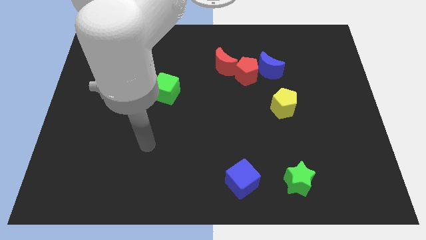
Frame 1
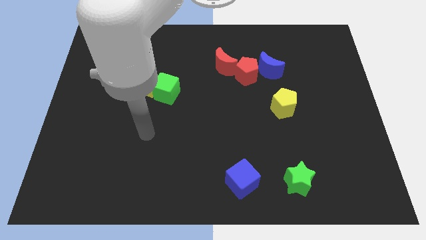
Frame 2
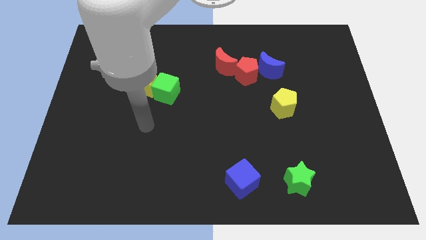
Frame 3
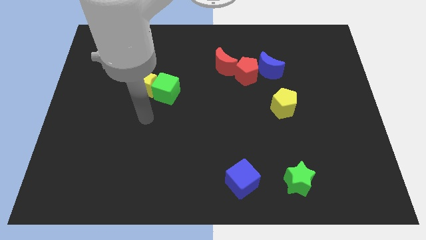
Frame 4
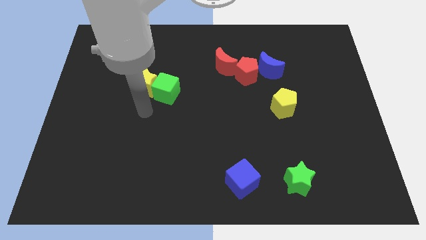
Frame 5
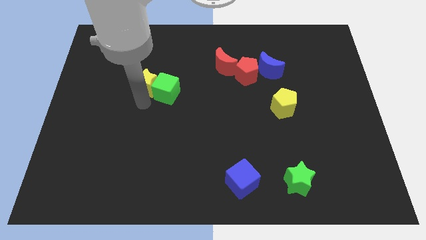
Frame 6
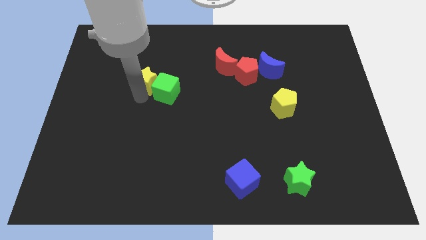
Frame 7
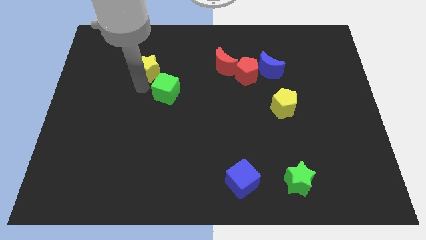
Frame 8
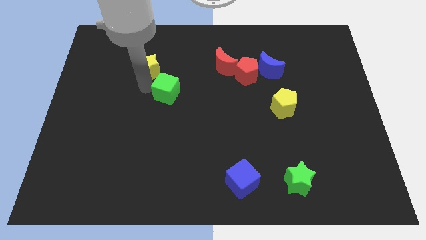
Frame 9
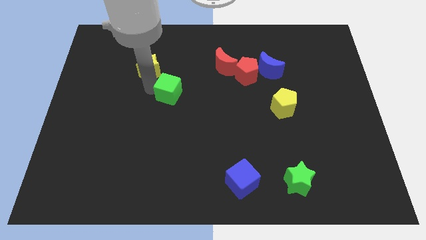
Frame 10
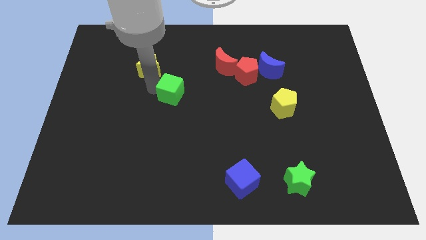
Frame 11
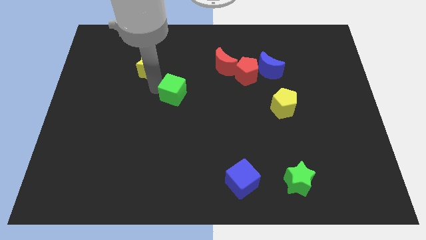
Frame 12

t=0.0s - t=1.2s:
separate the green cube from the yellow star

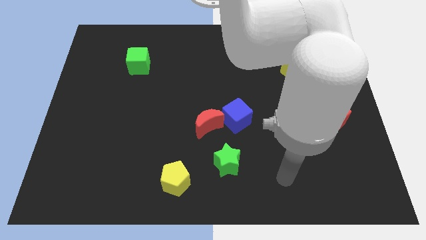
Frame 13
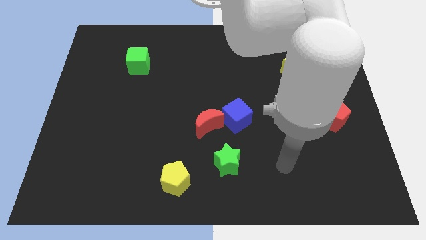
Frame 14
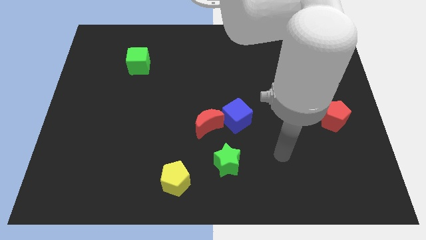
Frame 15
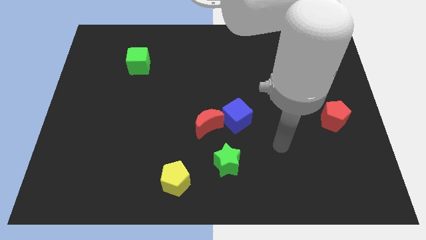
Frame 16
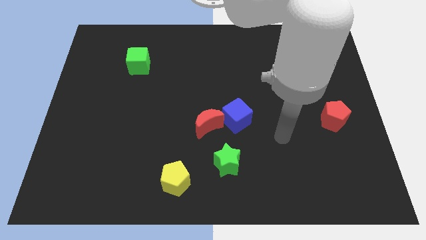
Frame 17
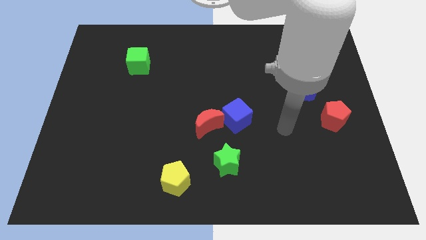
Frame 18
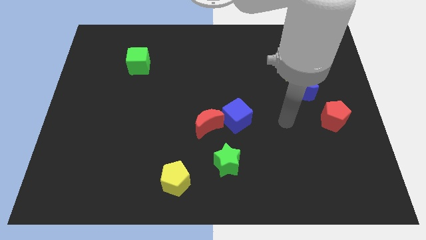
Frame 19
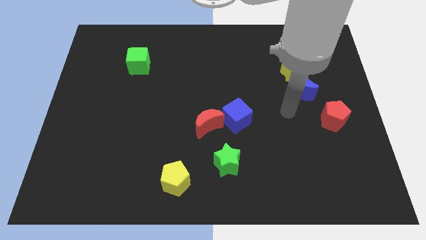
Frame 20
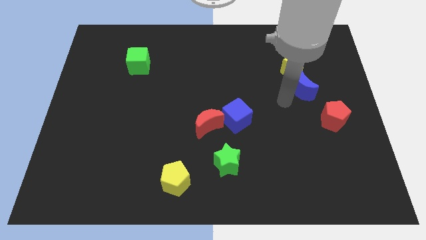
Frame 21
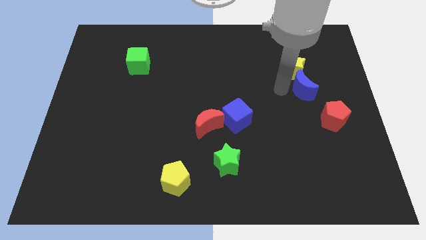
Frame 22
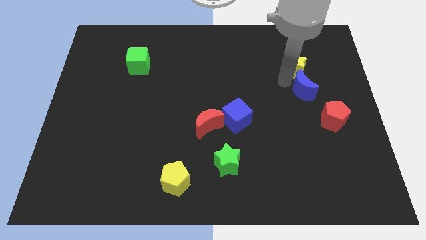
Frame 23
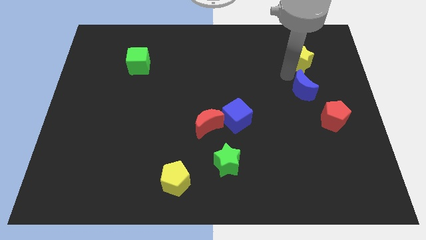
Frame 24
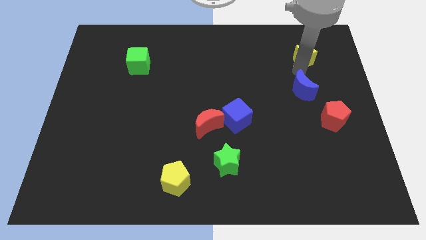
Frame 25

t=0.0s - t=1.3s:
move the blue moon away from the yellow star

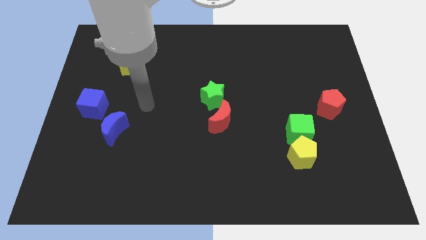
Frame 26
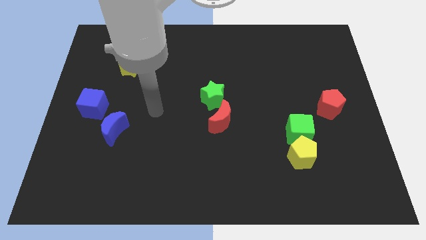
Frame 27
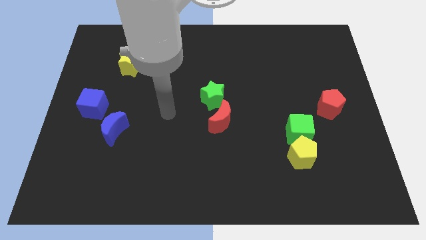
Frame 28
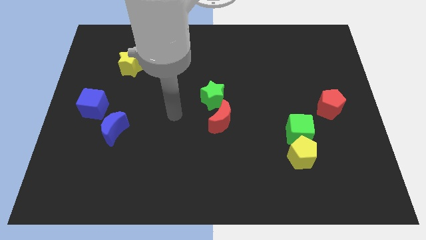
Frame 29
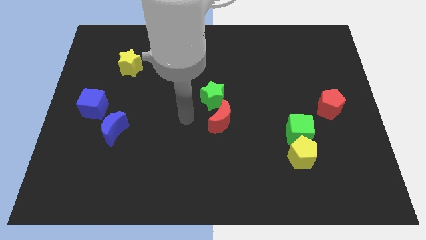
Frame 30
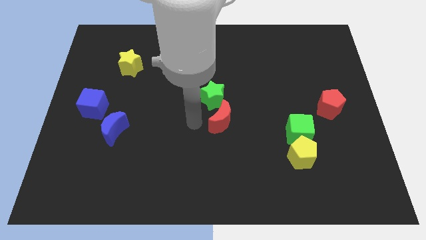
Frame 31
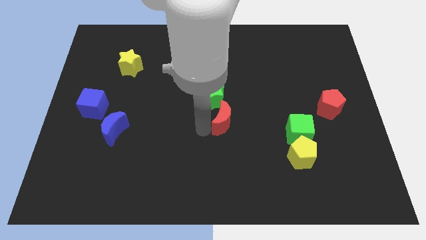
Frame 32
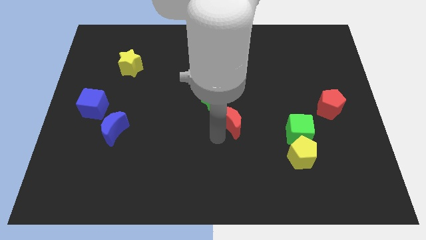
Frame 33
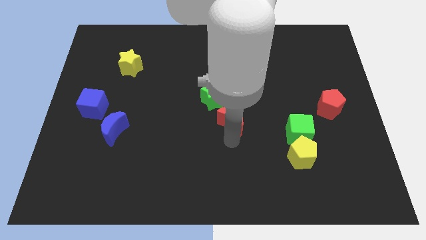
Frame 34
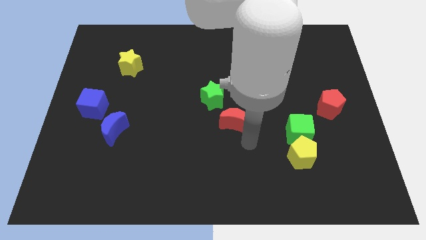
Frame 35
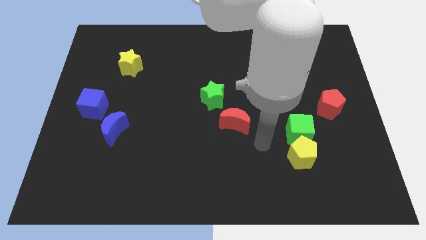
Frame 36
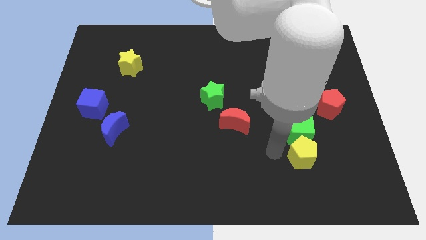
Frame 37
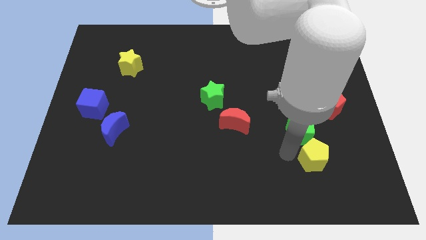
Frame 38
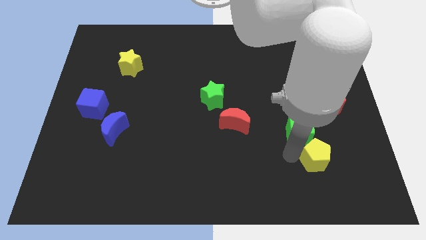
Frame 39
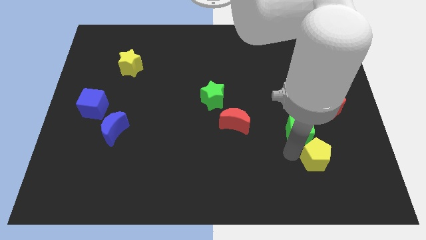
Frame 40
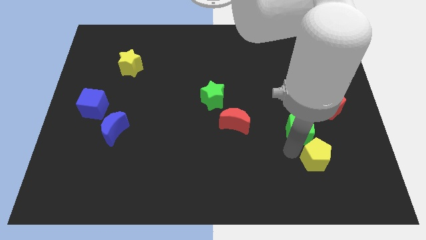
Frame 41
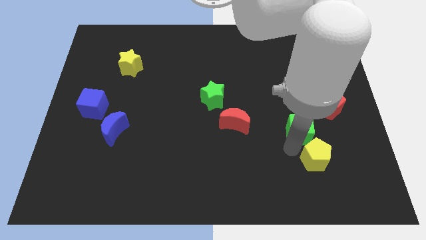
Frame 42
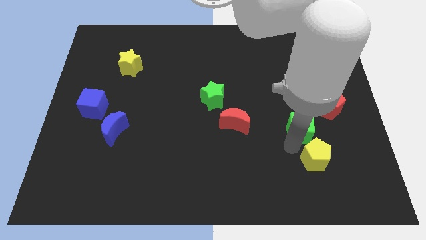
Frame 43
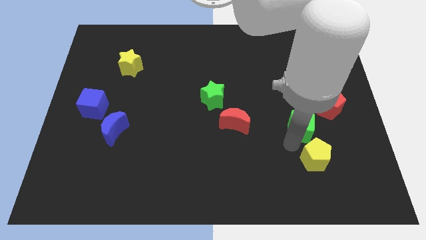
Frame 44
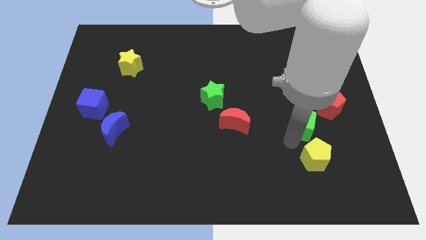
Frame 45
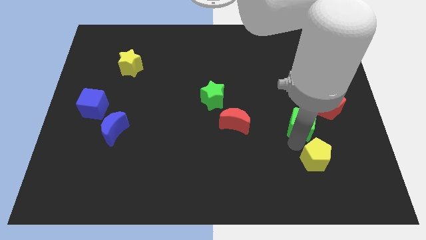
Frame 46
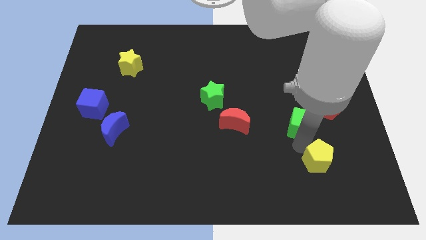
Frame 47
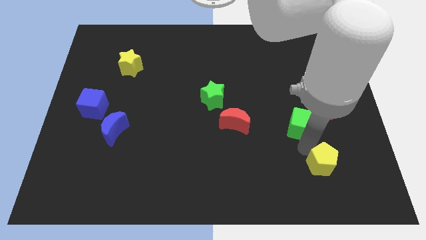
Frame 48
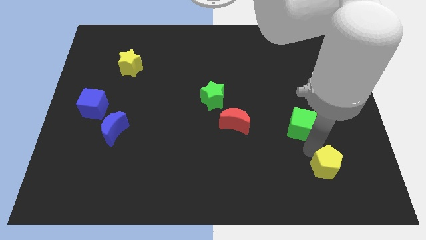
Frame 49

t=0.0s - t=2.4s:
move the green cube away from the yellow pentagon

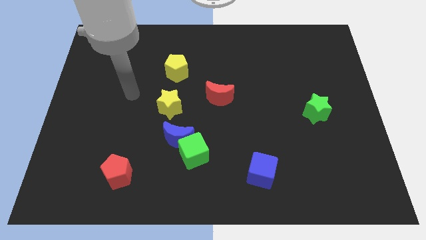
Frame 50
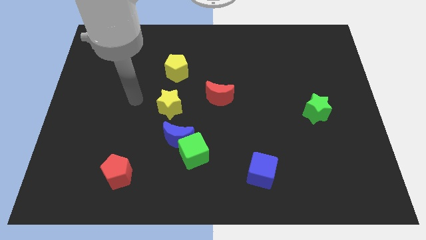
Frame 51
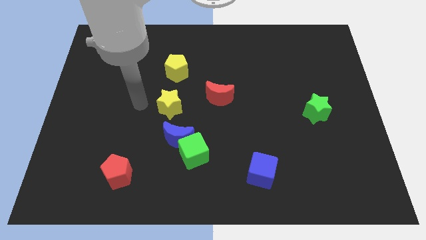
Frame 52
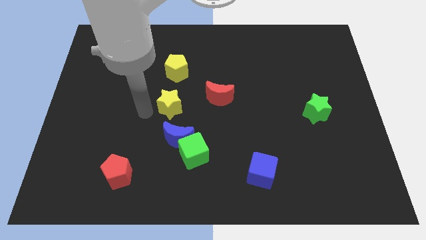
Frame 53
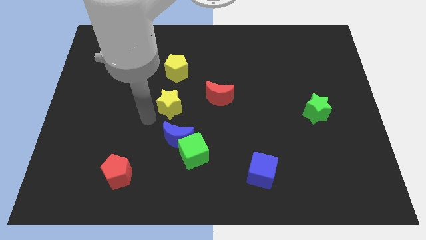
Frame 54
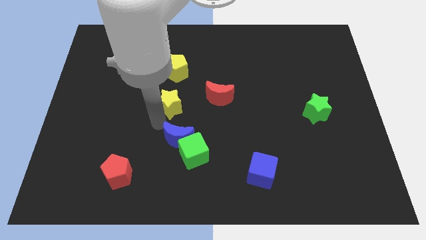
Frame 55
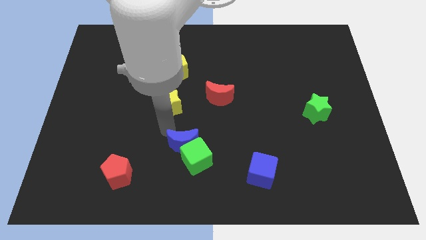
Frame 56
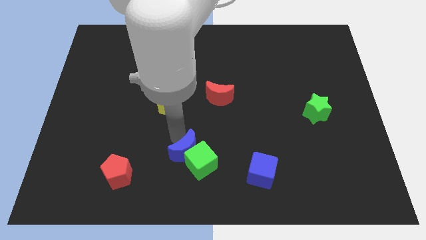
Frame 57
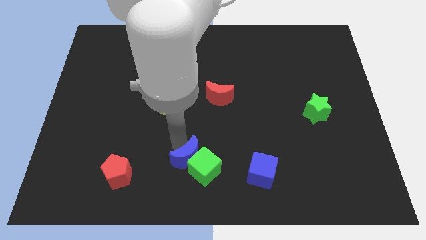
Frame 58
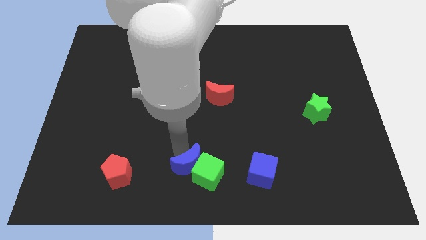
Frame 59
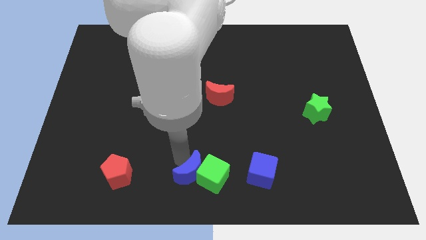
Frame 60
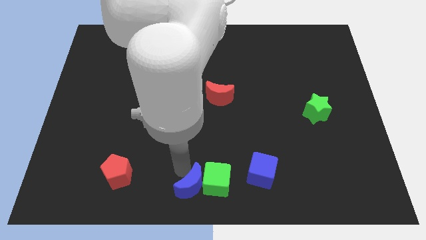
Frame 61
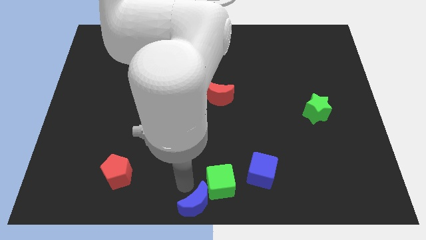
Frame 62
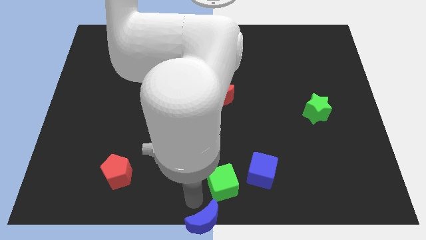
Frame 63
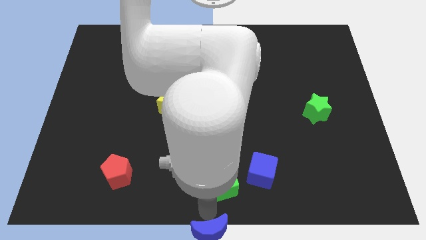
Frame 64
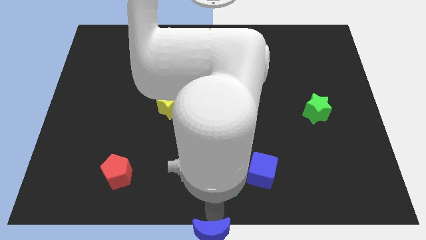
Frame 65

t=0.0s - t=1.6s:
move the green cube away from the blue moon

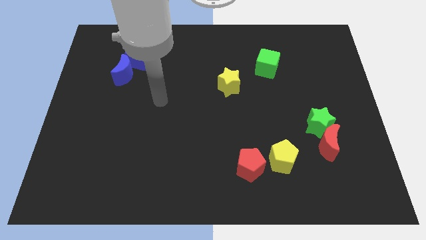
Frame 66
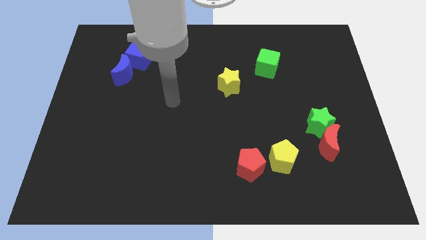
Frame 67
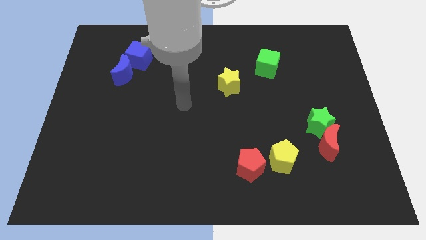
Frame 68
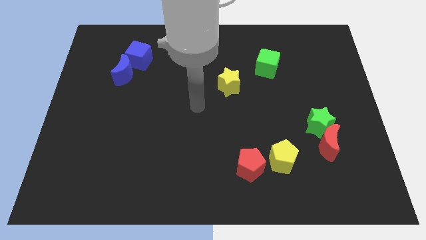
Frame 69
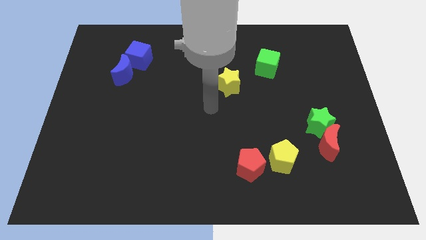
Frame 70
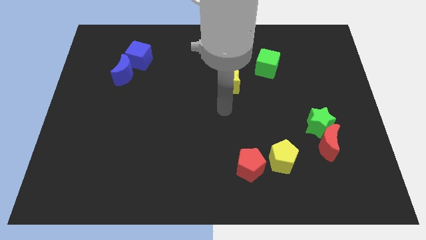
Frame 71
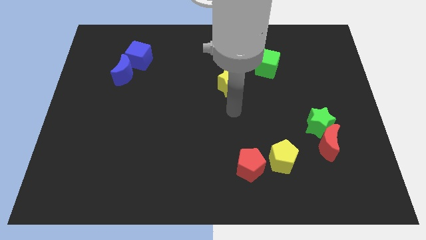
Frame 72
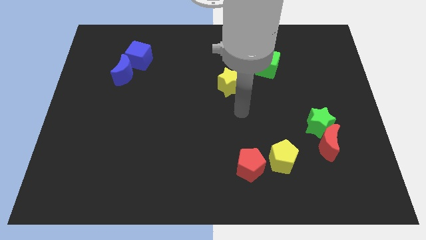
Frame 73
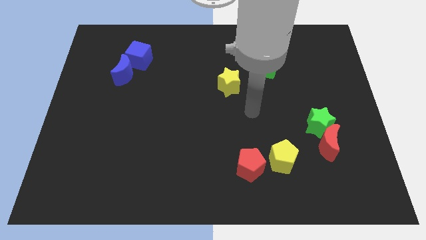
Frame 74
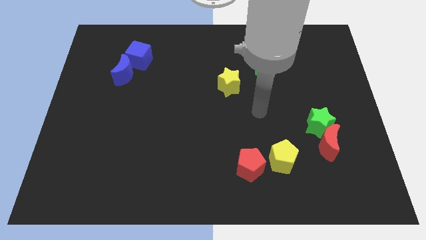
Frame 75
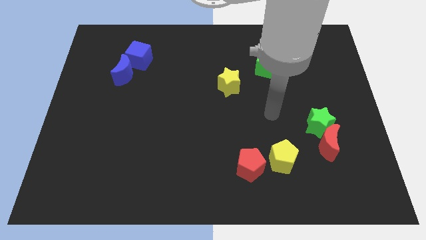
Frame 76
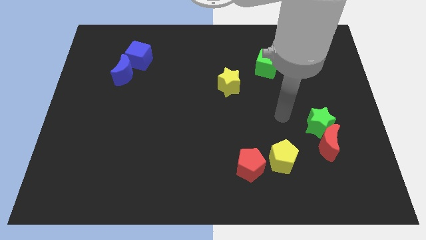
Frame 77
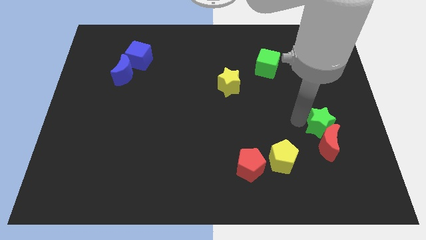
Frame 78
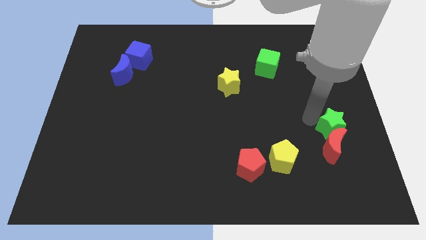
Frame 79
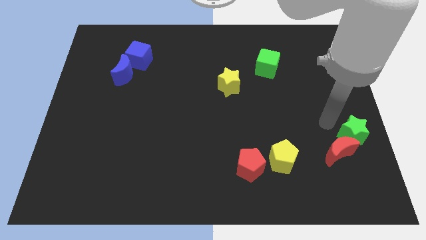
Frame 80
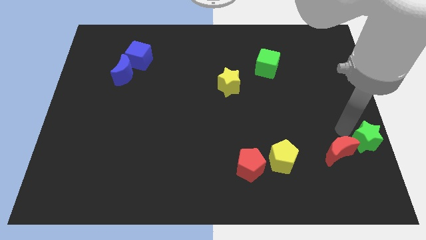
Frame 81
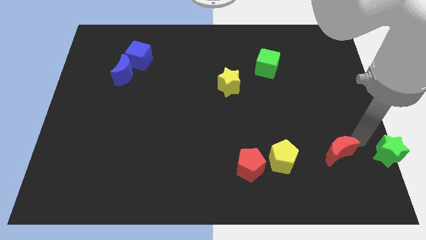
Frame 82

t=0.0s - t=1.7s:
separate the red moon from the green star

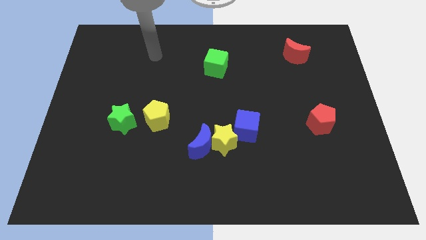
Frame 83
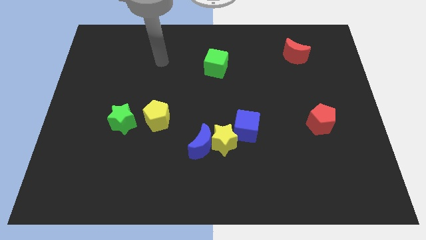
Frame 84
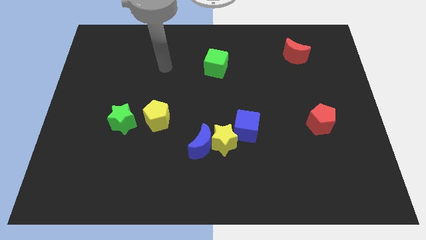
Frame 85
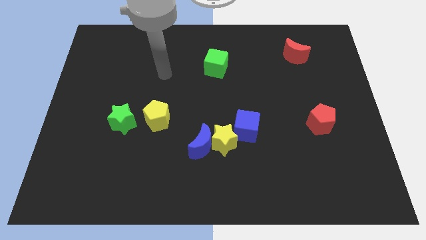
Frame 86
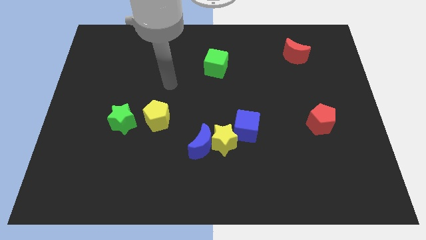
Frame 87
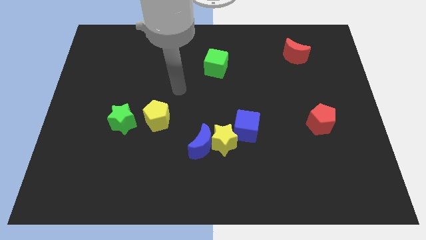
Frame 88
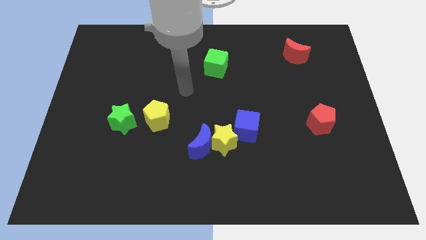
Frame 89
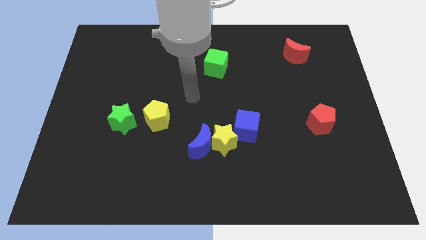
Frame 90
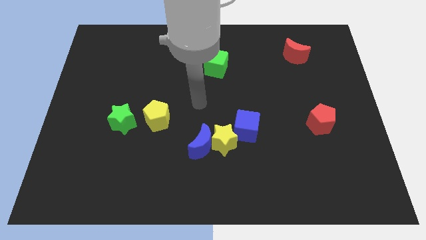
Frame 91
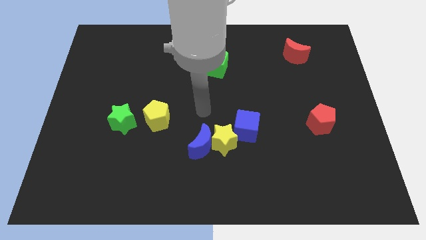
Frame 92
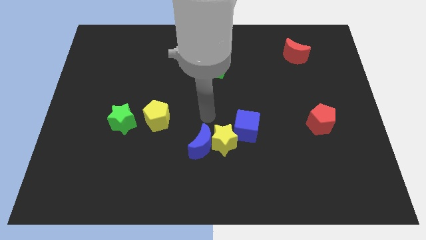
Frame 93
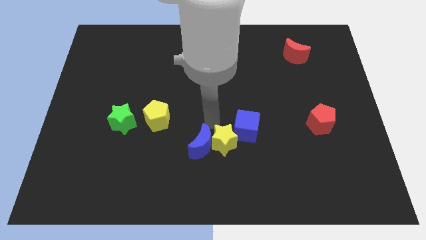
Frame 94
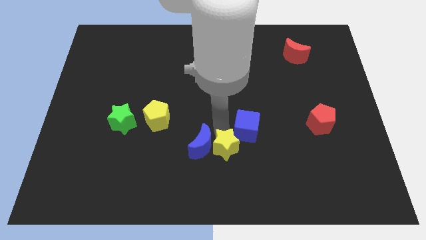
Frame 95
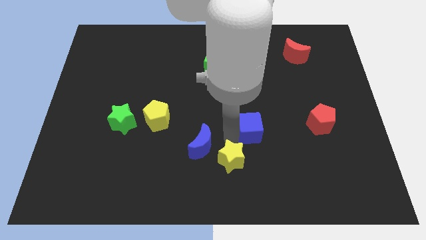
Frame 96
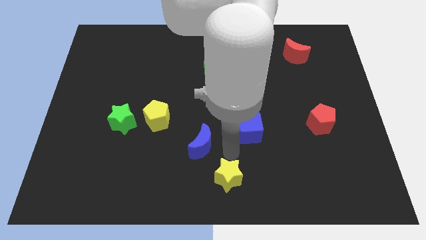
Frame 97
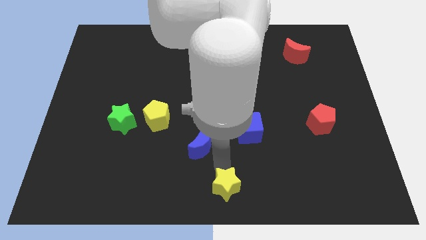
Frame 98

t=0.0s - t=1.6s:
pull the blue moon apart from the yellow star
